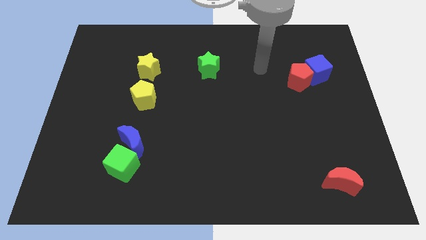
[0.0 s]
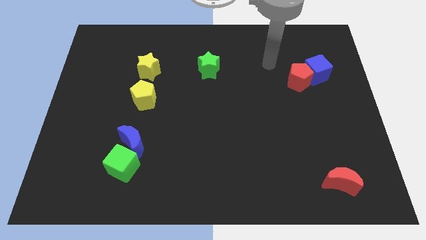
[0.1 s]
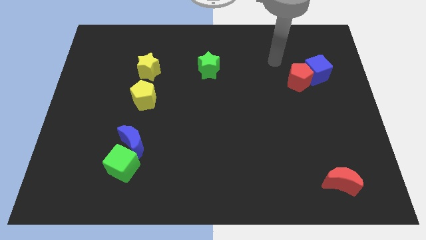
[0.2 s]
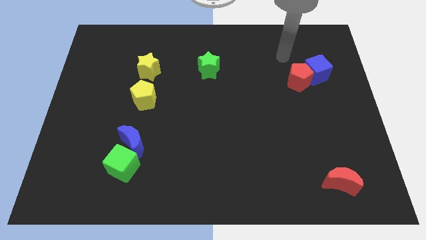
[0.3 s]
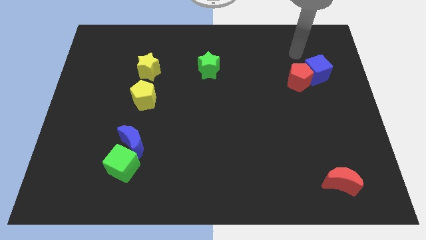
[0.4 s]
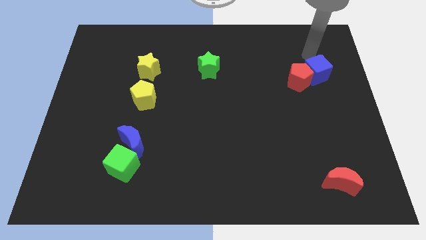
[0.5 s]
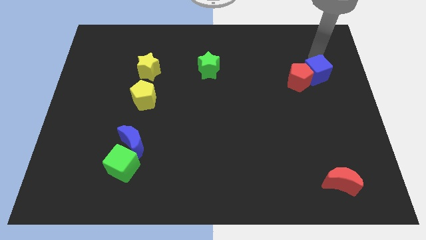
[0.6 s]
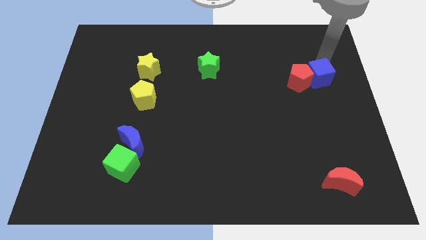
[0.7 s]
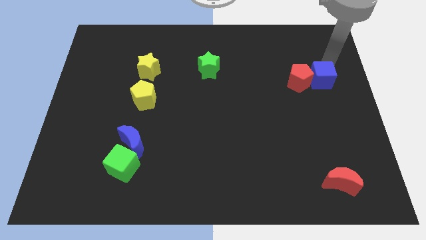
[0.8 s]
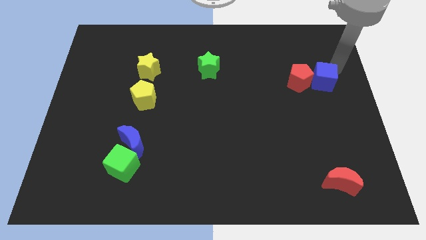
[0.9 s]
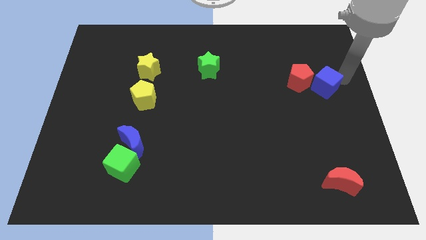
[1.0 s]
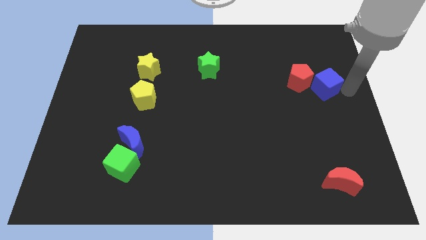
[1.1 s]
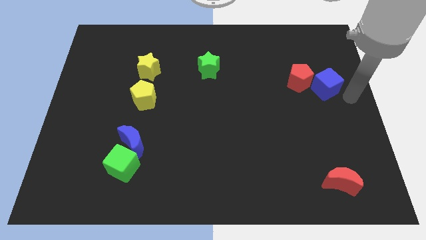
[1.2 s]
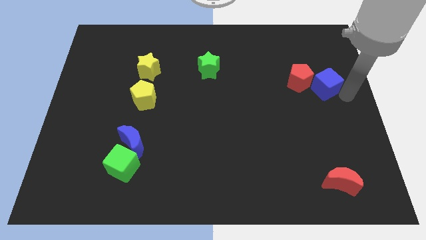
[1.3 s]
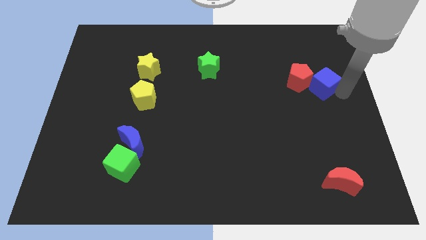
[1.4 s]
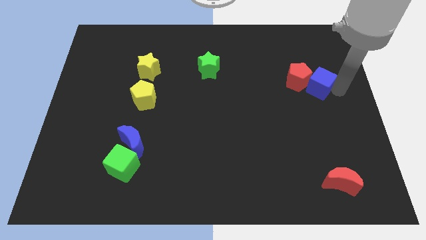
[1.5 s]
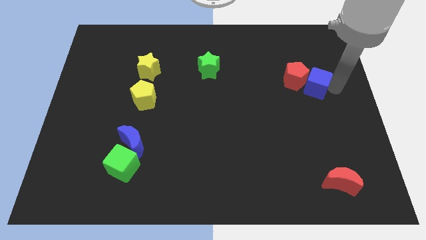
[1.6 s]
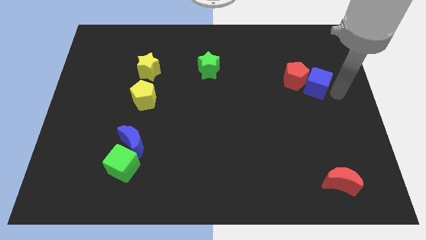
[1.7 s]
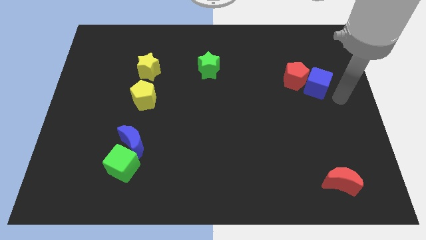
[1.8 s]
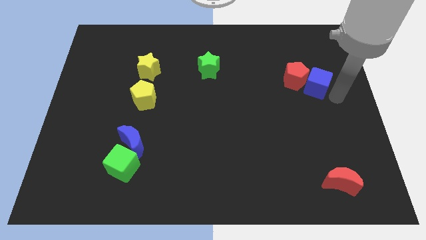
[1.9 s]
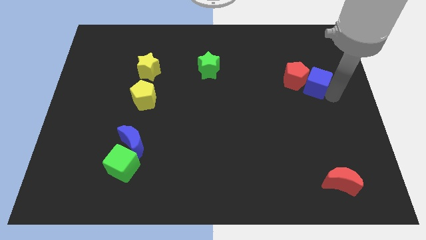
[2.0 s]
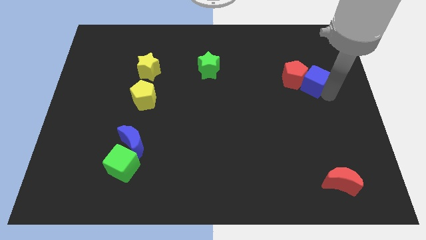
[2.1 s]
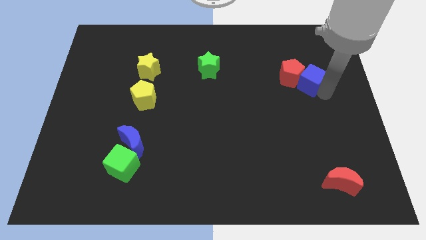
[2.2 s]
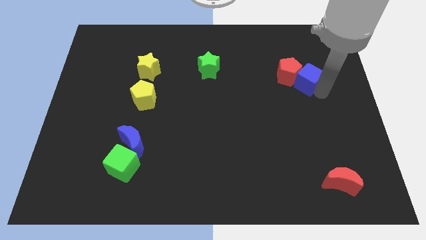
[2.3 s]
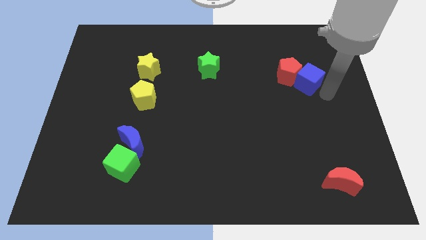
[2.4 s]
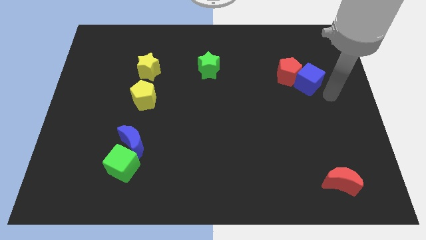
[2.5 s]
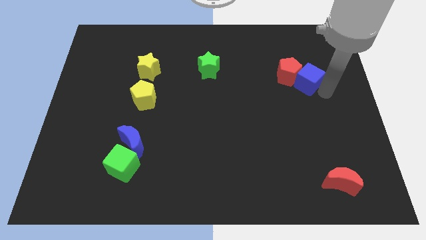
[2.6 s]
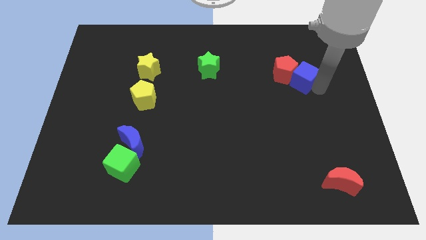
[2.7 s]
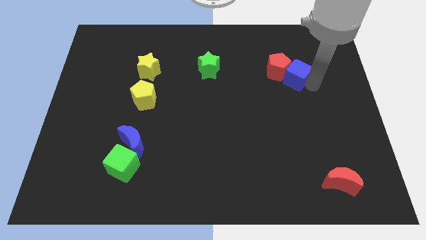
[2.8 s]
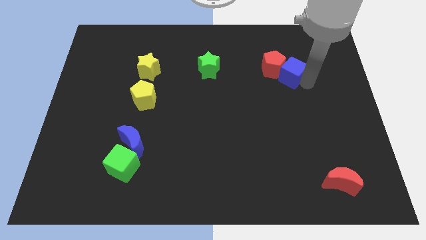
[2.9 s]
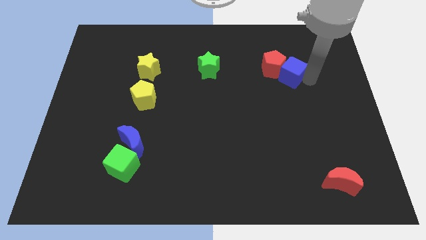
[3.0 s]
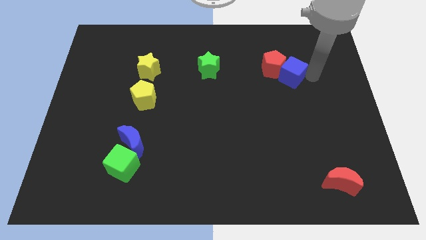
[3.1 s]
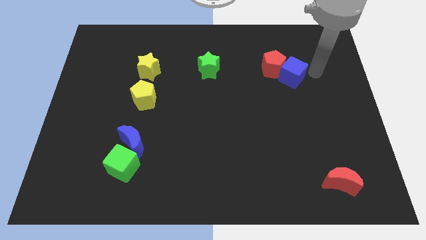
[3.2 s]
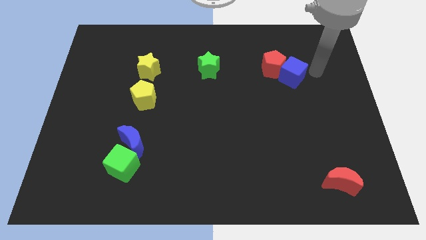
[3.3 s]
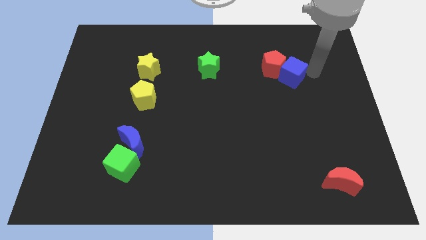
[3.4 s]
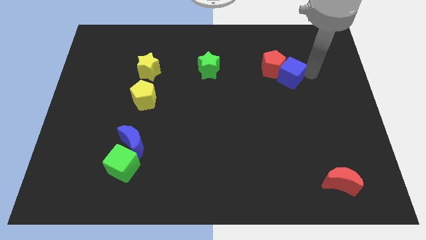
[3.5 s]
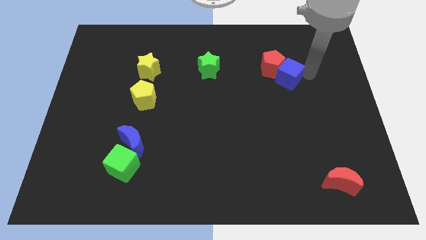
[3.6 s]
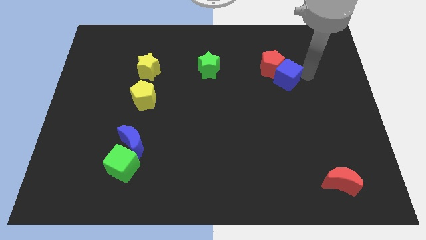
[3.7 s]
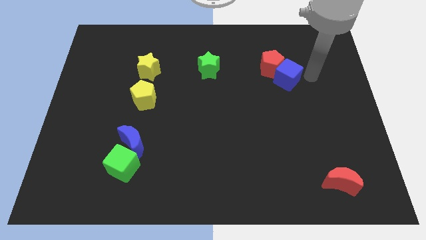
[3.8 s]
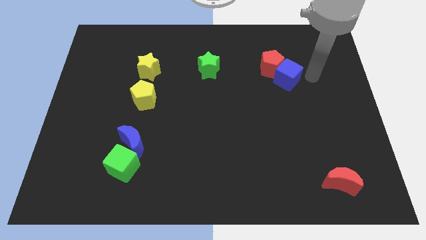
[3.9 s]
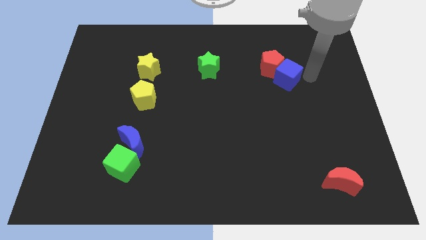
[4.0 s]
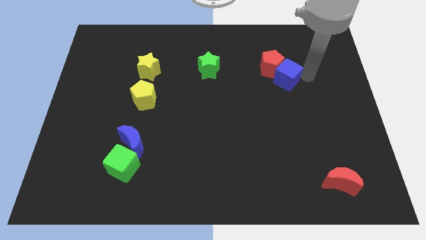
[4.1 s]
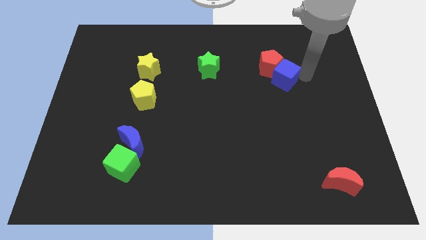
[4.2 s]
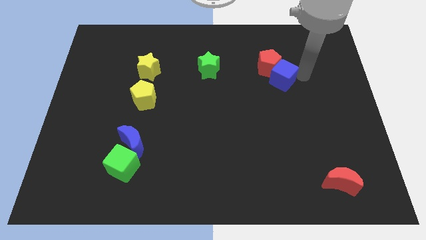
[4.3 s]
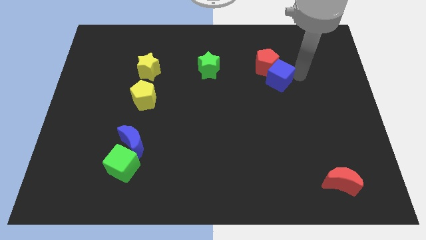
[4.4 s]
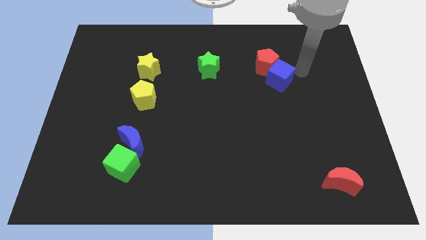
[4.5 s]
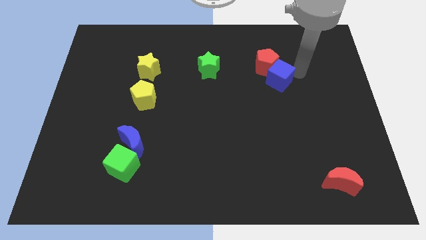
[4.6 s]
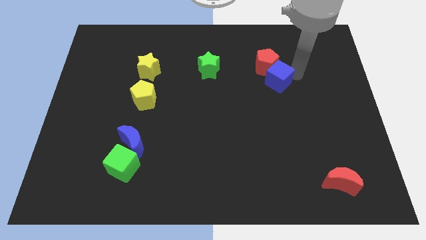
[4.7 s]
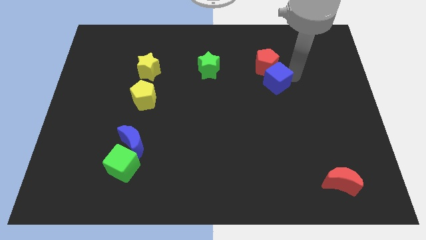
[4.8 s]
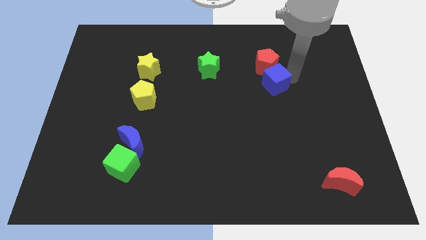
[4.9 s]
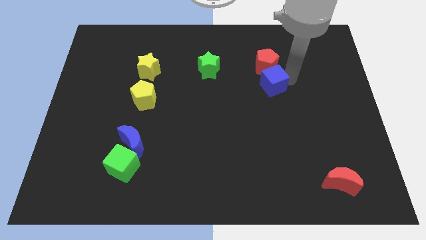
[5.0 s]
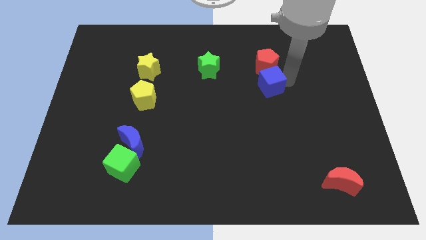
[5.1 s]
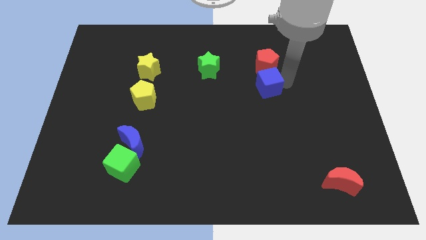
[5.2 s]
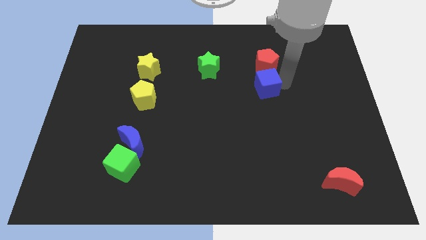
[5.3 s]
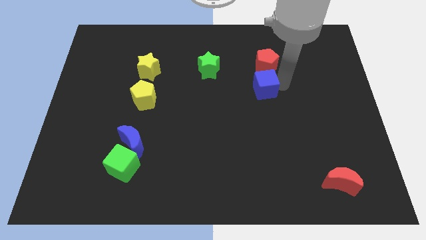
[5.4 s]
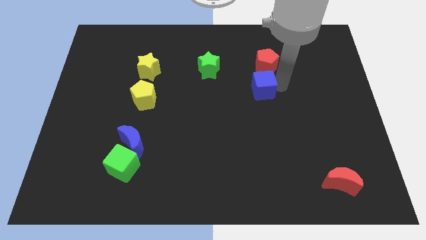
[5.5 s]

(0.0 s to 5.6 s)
push the blue cube to the center of the board
